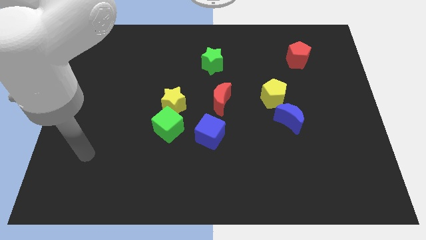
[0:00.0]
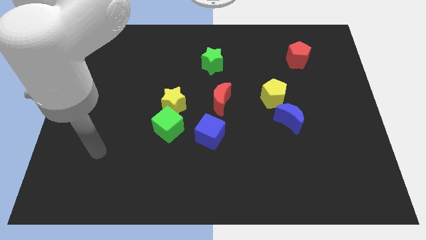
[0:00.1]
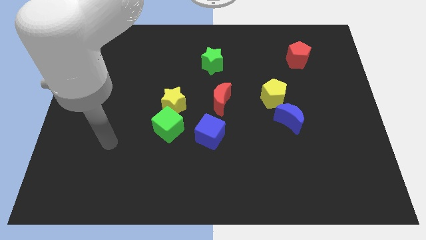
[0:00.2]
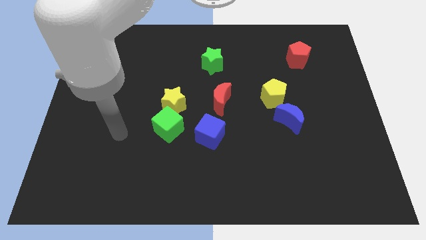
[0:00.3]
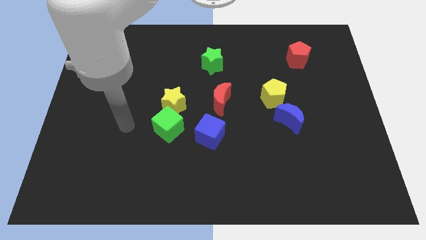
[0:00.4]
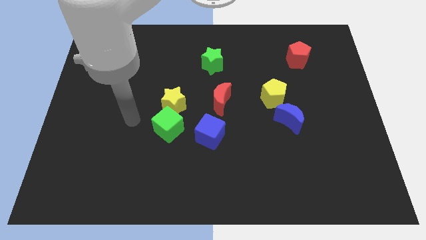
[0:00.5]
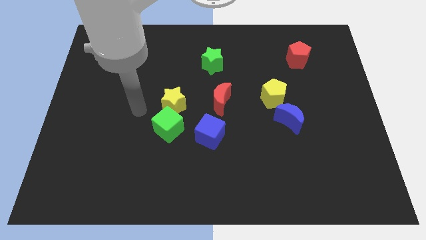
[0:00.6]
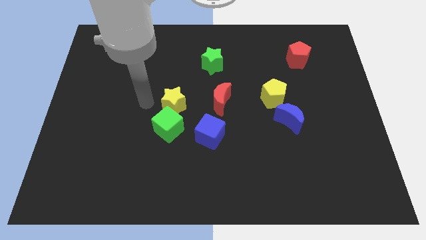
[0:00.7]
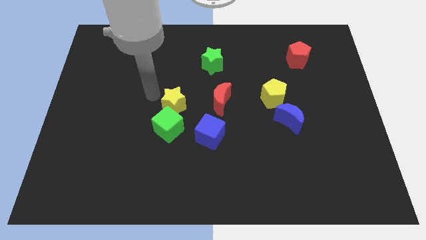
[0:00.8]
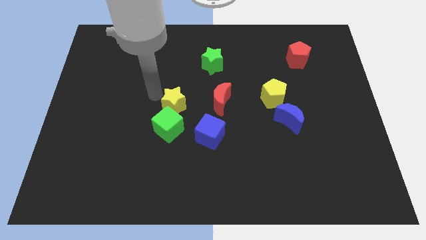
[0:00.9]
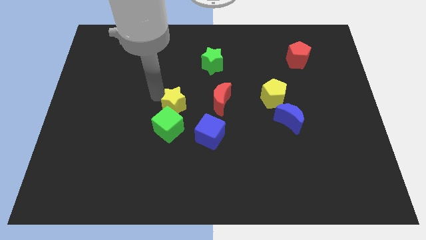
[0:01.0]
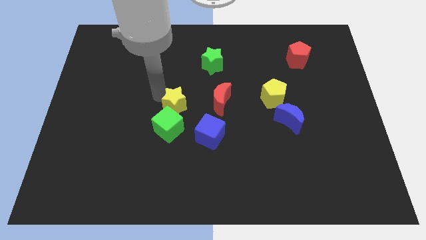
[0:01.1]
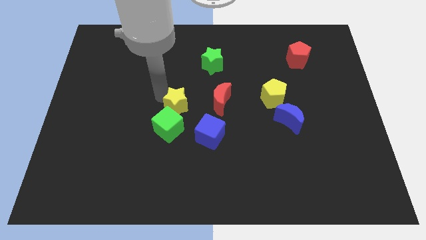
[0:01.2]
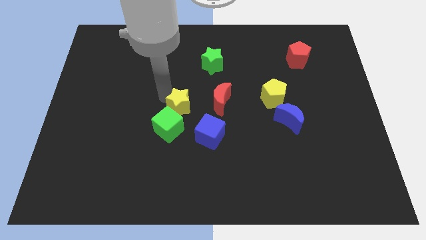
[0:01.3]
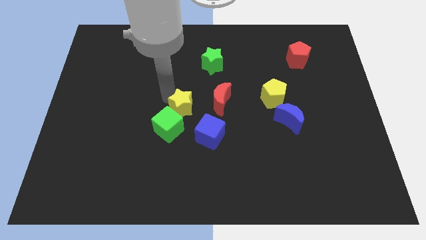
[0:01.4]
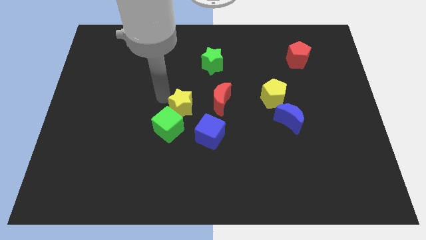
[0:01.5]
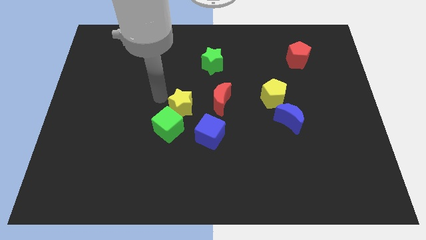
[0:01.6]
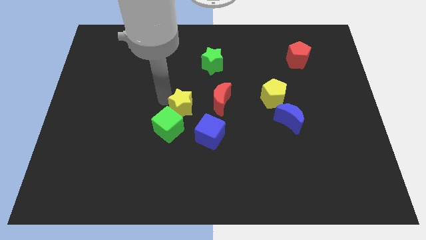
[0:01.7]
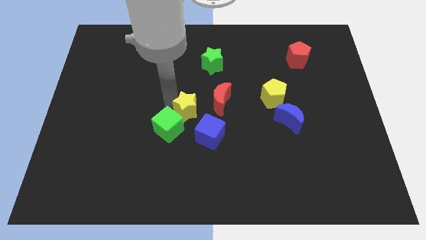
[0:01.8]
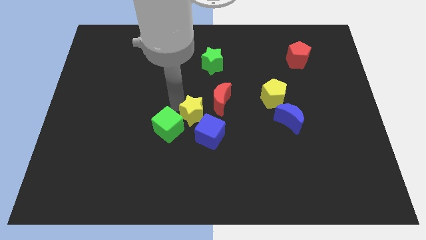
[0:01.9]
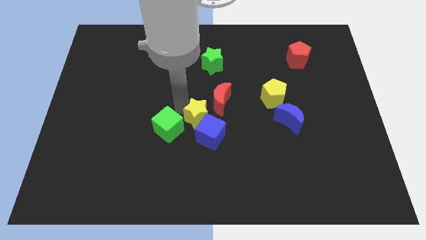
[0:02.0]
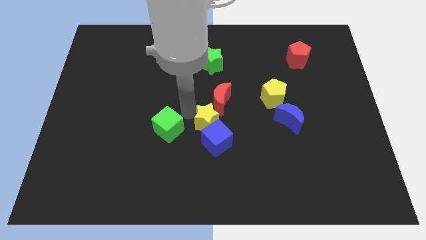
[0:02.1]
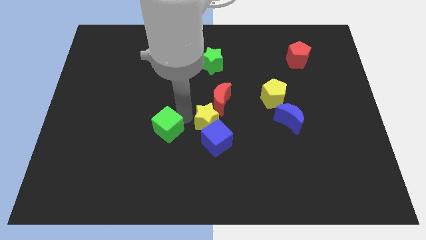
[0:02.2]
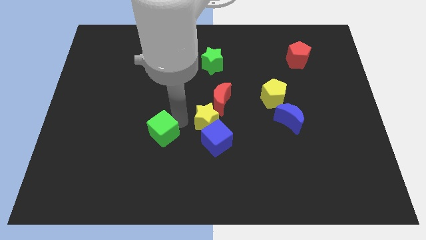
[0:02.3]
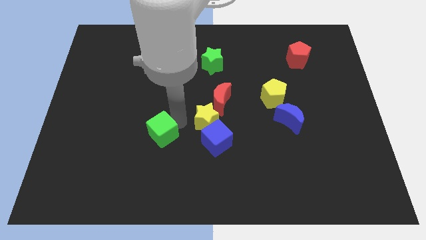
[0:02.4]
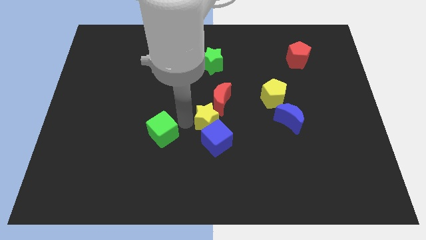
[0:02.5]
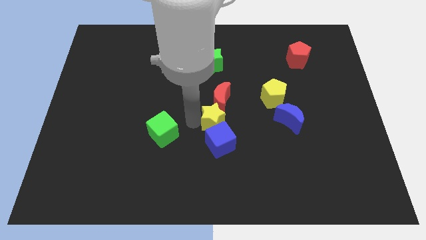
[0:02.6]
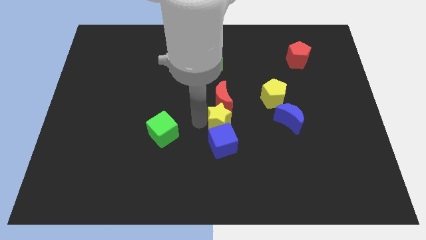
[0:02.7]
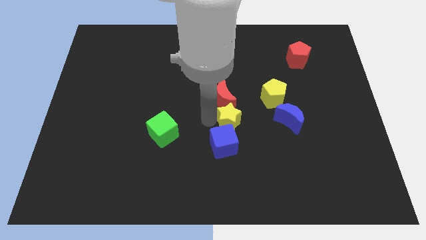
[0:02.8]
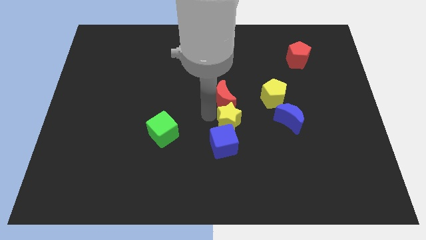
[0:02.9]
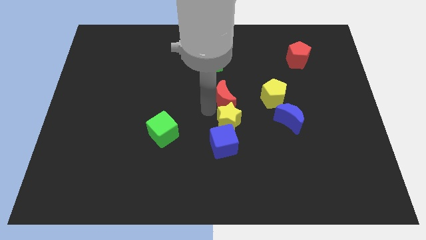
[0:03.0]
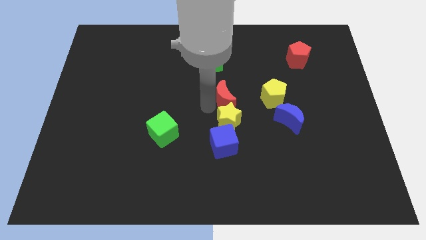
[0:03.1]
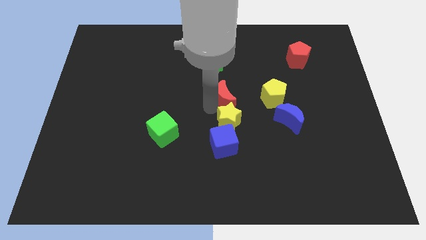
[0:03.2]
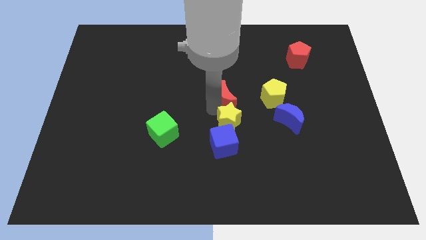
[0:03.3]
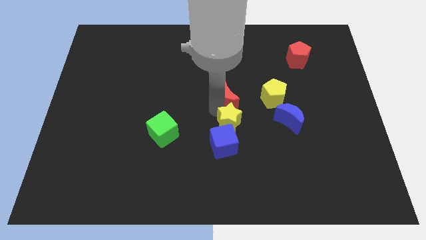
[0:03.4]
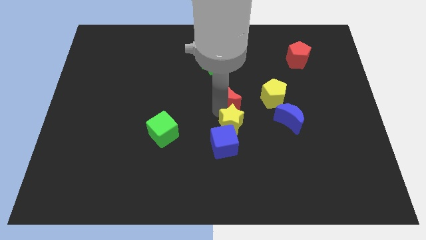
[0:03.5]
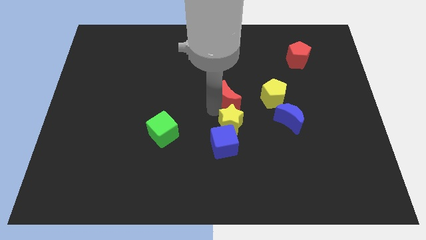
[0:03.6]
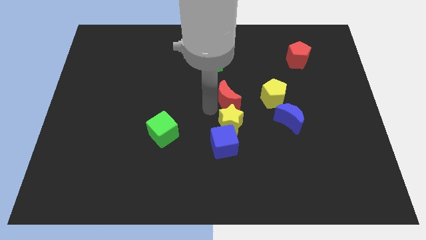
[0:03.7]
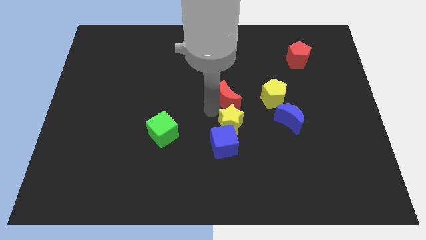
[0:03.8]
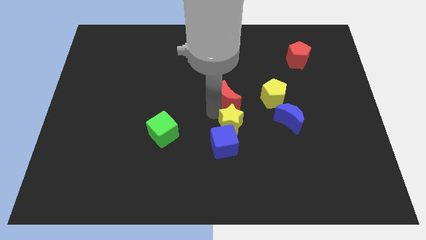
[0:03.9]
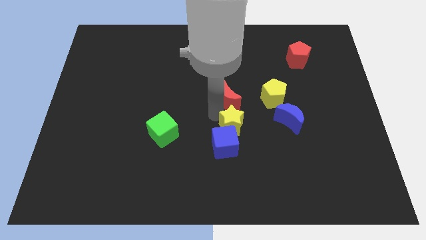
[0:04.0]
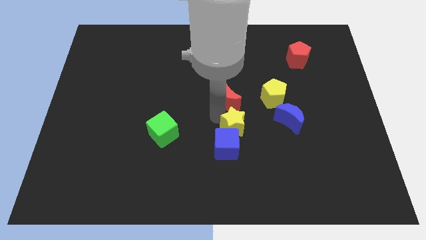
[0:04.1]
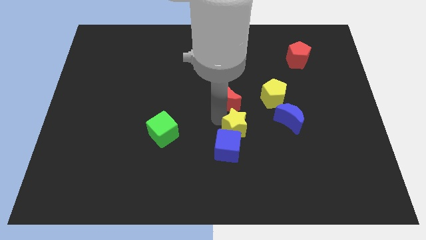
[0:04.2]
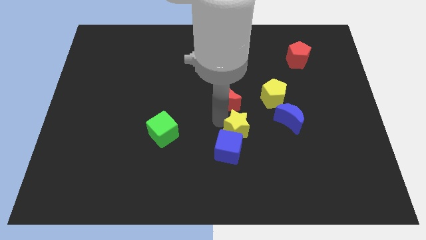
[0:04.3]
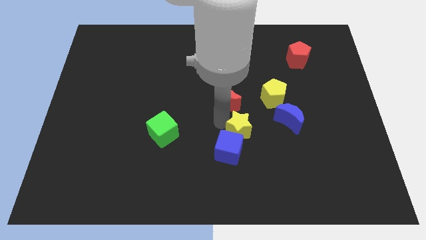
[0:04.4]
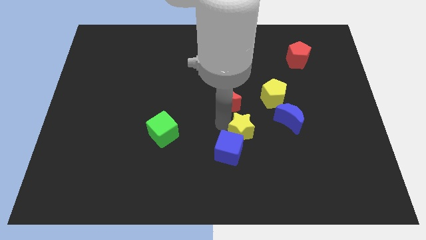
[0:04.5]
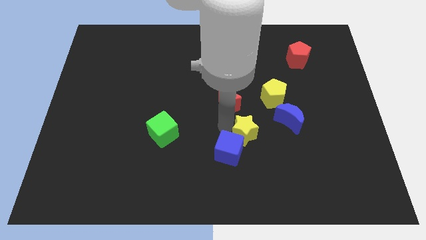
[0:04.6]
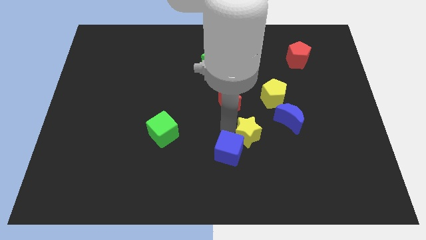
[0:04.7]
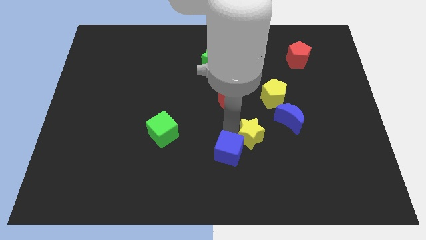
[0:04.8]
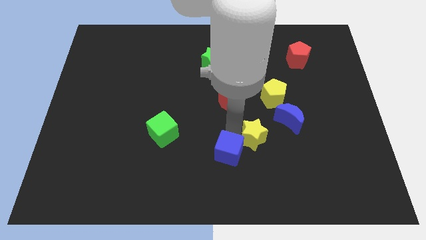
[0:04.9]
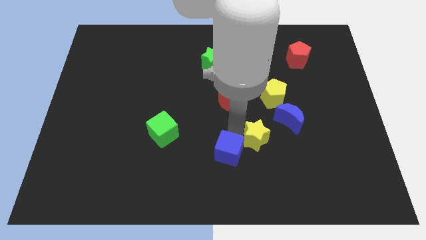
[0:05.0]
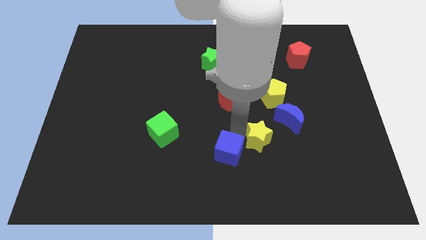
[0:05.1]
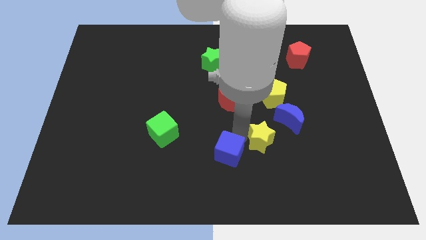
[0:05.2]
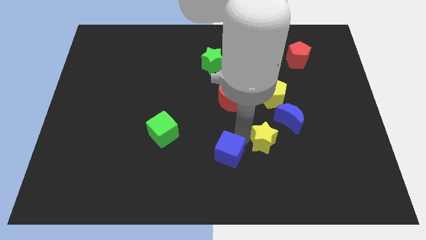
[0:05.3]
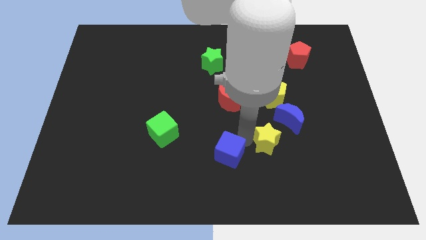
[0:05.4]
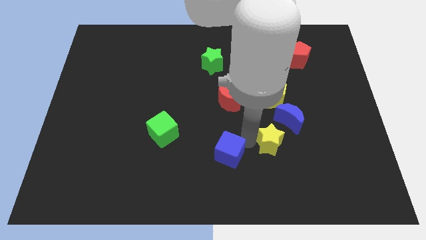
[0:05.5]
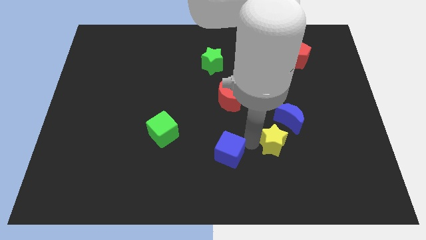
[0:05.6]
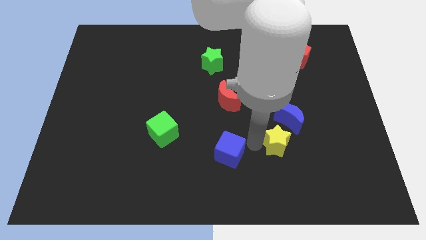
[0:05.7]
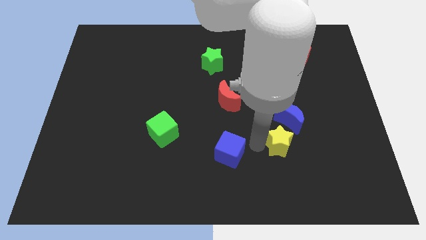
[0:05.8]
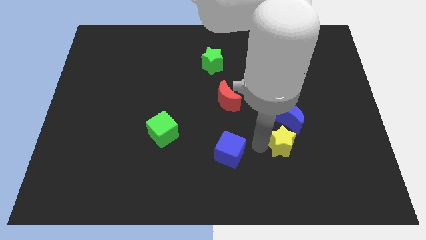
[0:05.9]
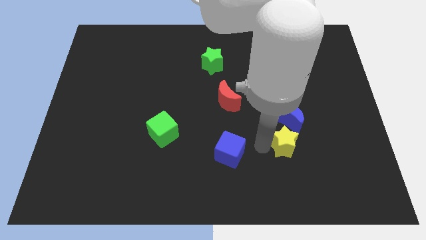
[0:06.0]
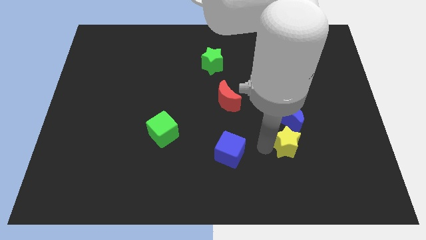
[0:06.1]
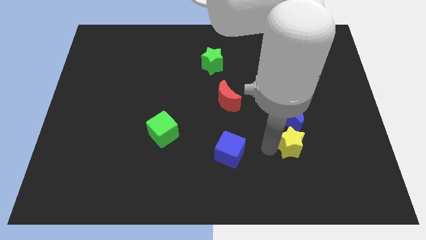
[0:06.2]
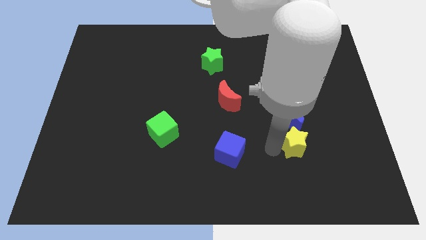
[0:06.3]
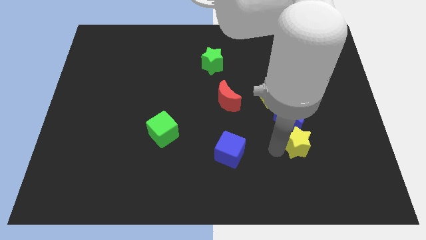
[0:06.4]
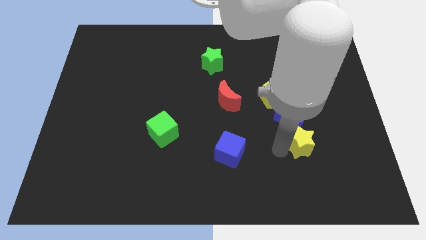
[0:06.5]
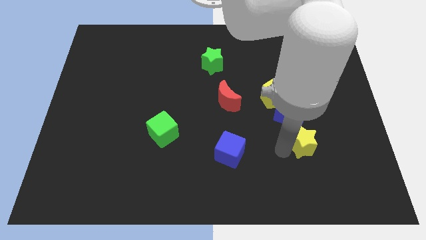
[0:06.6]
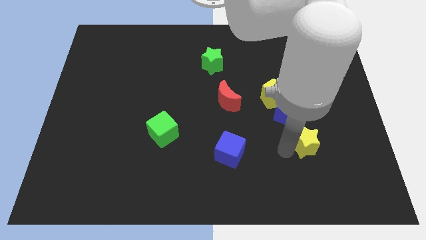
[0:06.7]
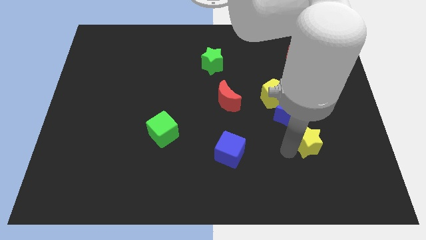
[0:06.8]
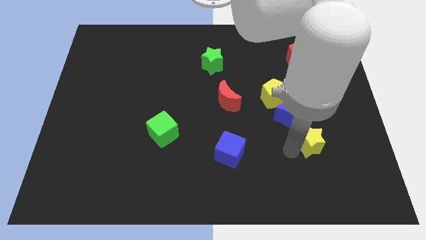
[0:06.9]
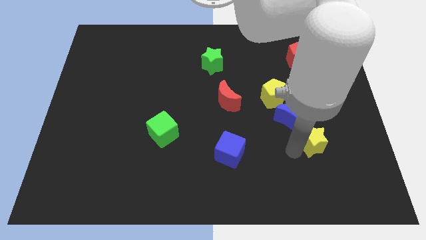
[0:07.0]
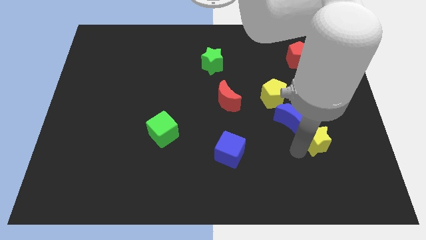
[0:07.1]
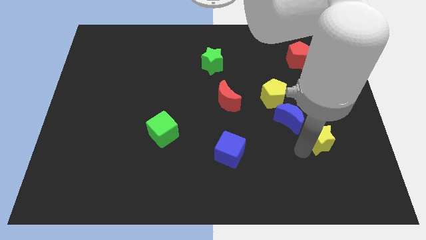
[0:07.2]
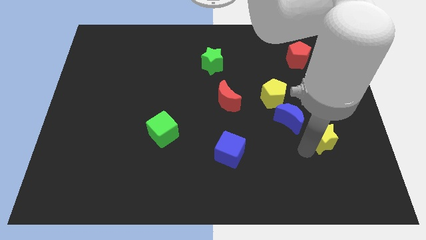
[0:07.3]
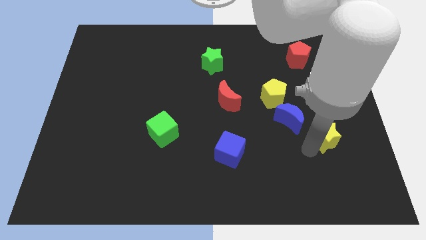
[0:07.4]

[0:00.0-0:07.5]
move the yellow star to the right of the blue moon

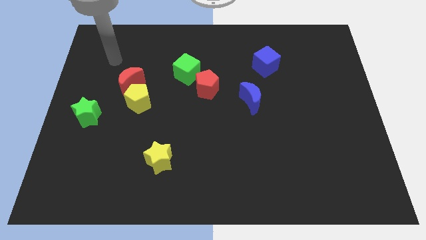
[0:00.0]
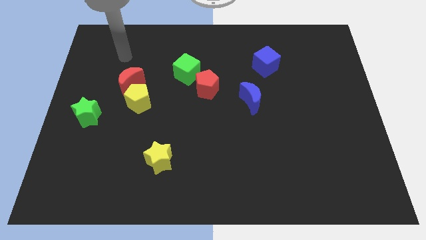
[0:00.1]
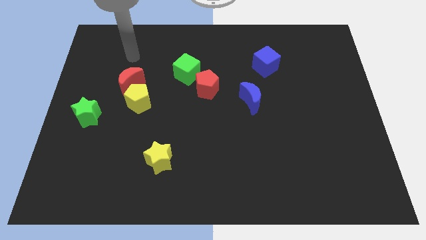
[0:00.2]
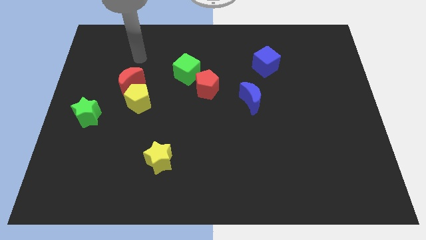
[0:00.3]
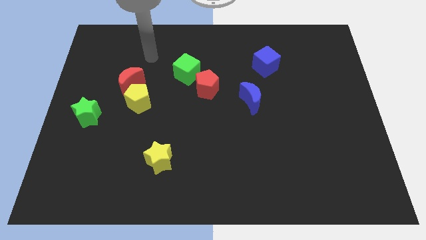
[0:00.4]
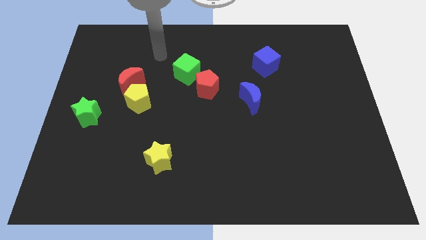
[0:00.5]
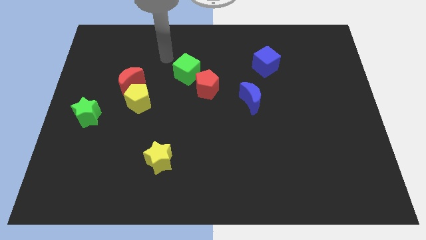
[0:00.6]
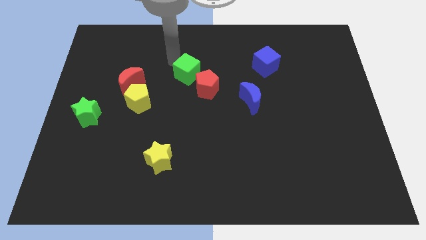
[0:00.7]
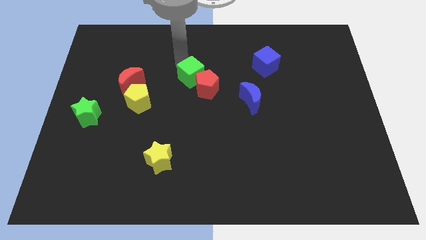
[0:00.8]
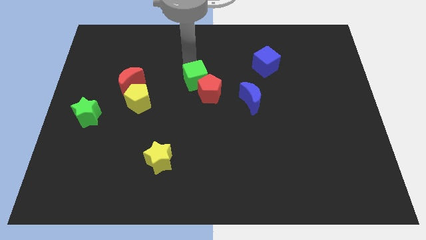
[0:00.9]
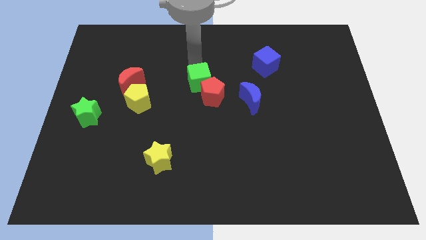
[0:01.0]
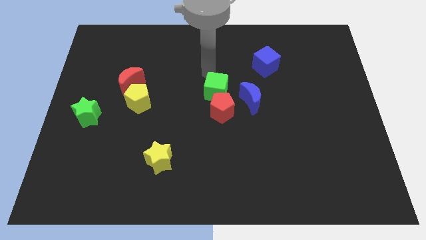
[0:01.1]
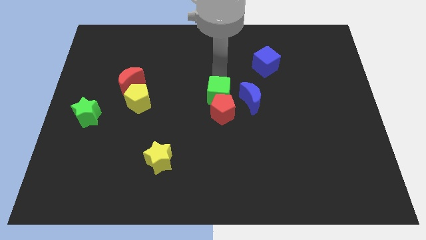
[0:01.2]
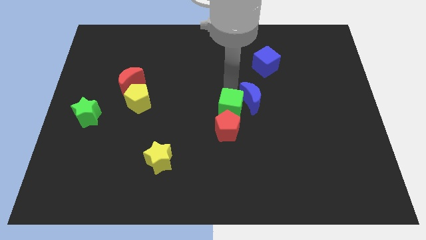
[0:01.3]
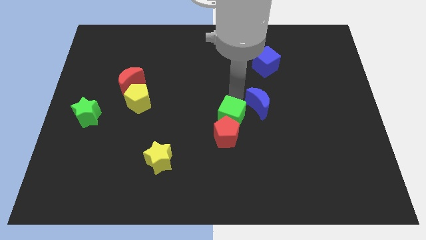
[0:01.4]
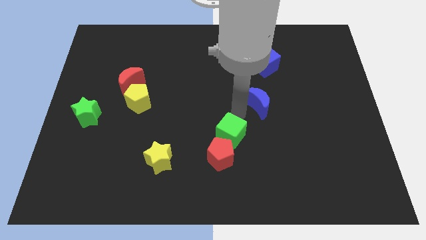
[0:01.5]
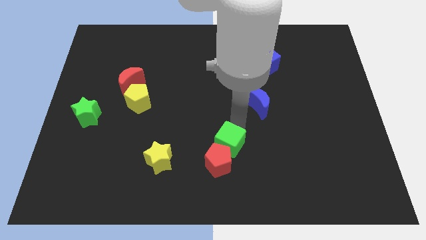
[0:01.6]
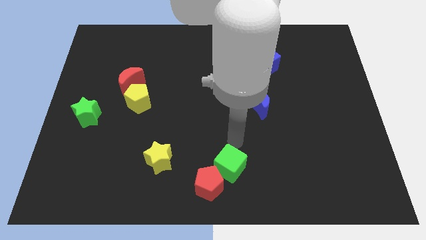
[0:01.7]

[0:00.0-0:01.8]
slide the red pentagon diagonally down and to the right of the yellow star
